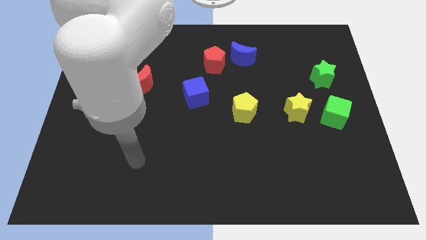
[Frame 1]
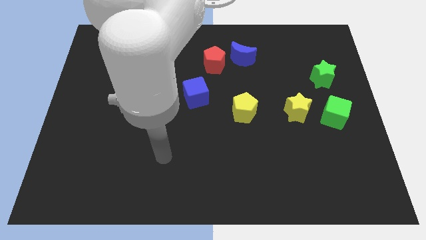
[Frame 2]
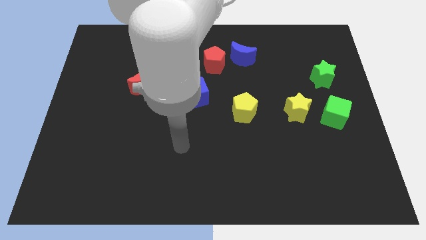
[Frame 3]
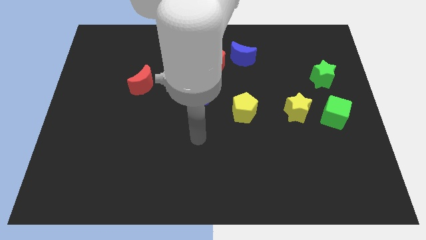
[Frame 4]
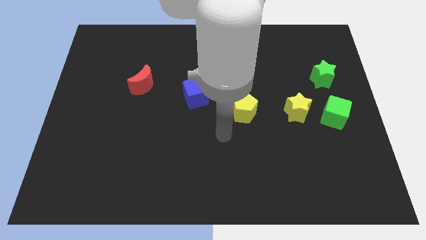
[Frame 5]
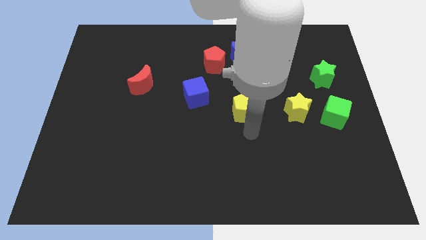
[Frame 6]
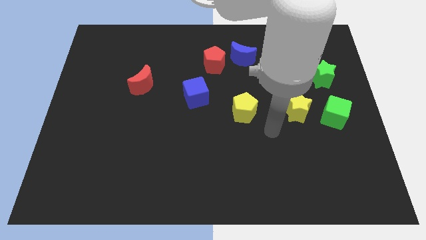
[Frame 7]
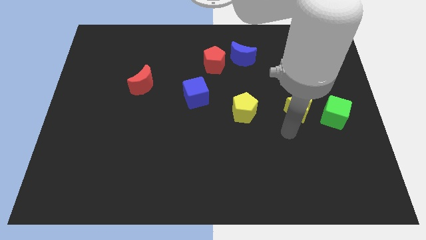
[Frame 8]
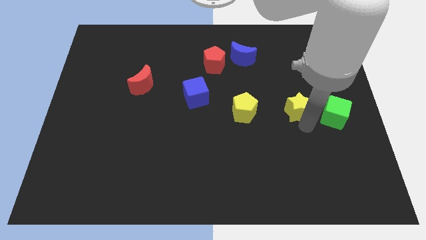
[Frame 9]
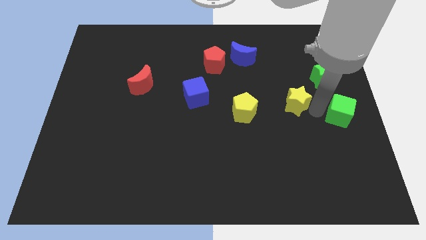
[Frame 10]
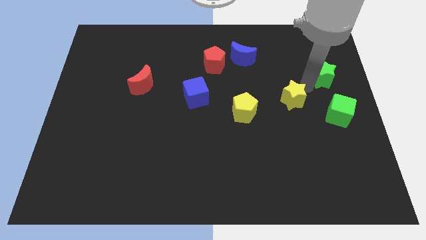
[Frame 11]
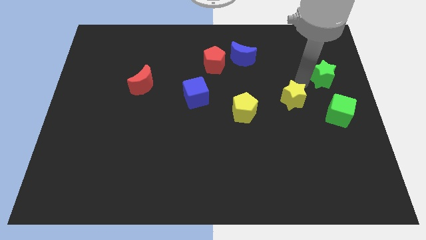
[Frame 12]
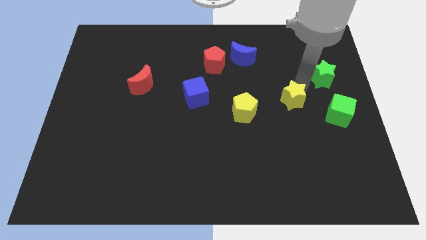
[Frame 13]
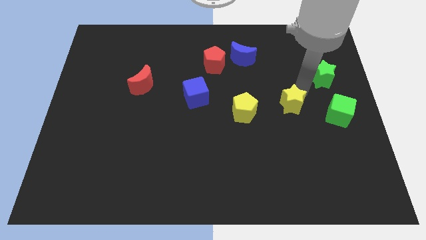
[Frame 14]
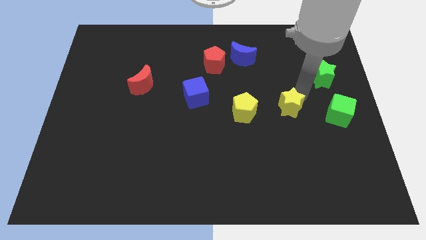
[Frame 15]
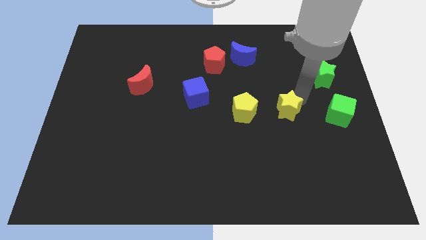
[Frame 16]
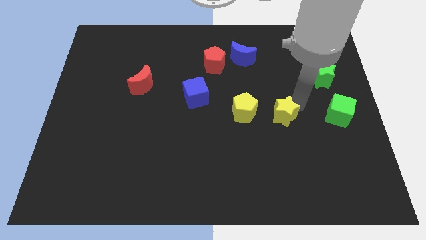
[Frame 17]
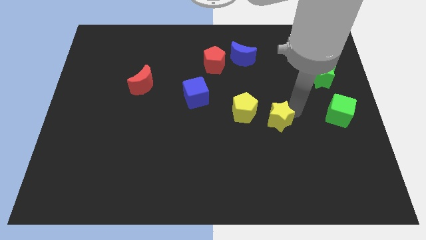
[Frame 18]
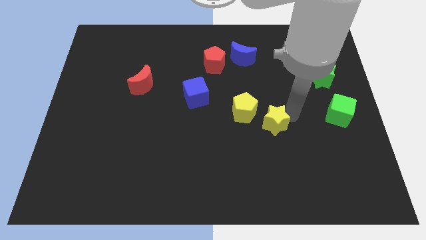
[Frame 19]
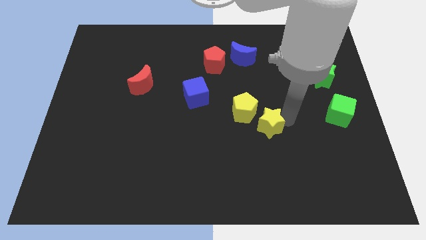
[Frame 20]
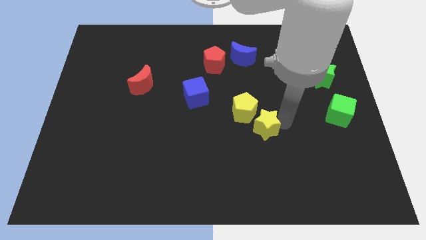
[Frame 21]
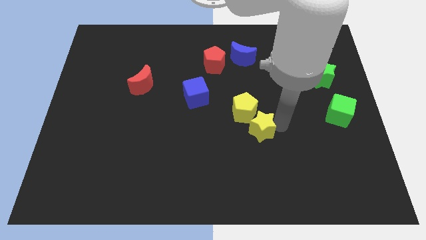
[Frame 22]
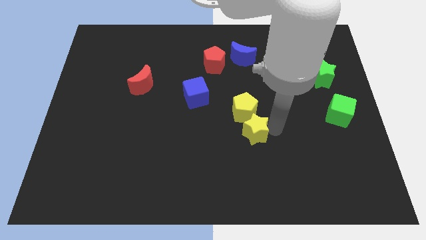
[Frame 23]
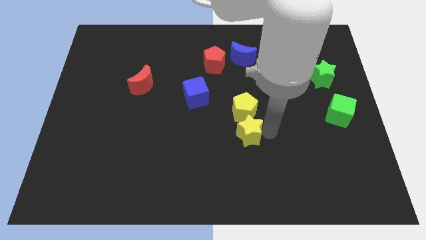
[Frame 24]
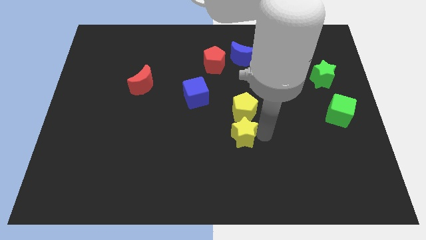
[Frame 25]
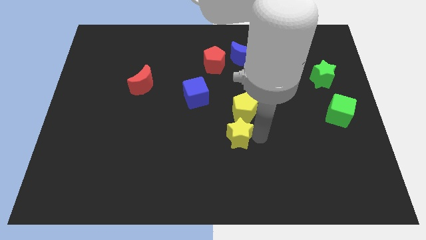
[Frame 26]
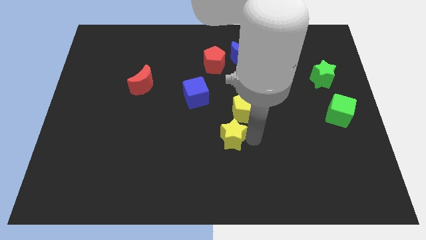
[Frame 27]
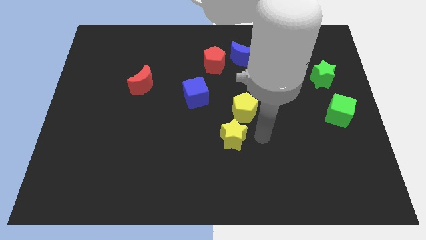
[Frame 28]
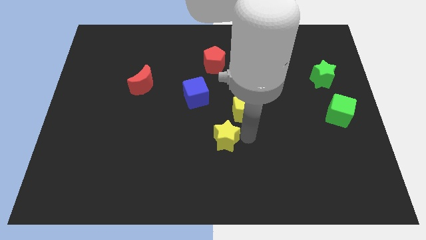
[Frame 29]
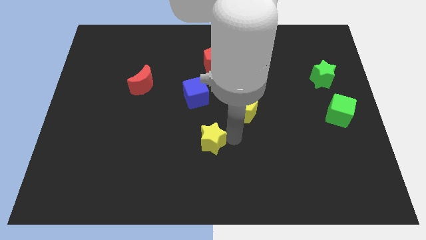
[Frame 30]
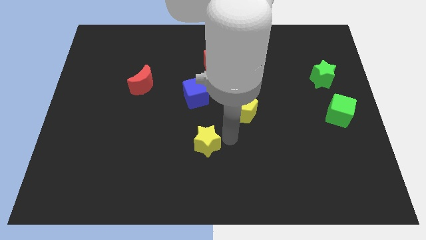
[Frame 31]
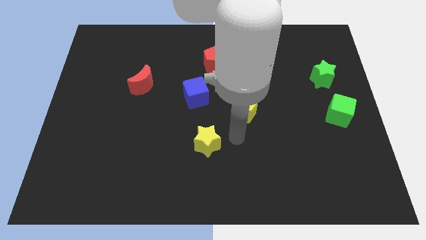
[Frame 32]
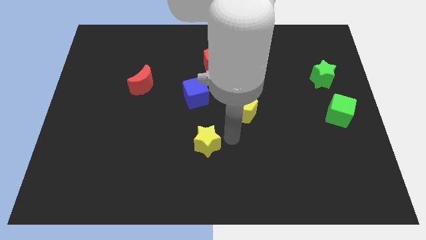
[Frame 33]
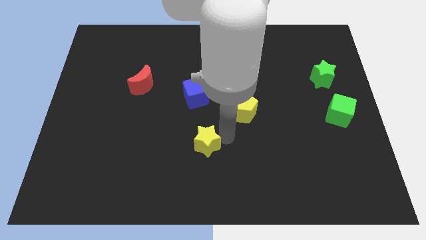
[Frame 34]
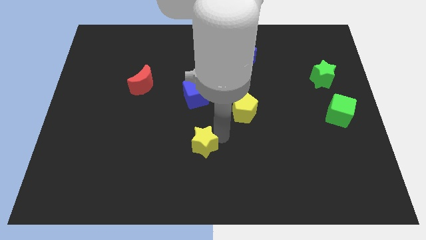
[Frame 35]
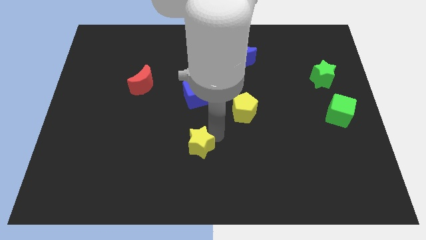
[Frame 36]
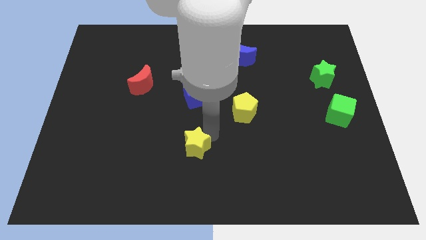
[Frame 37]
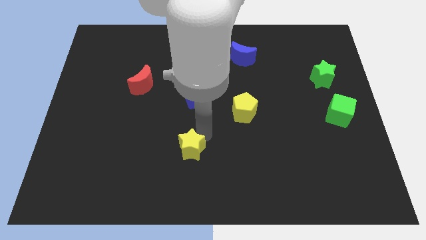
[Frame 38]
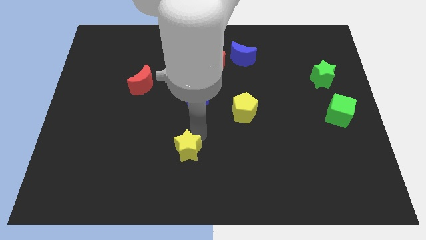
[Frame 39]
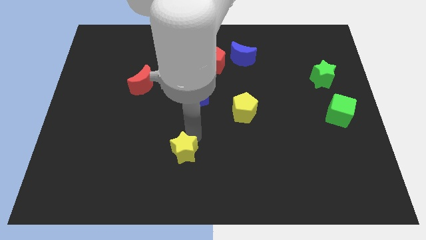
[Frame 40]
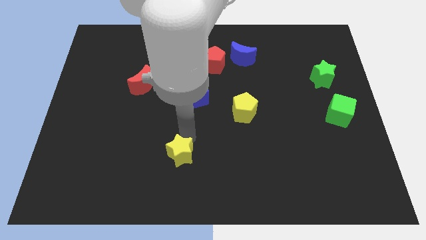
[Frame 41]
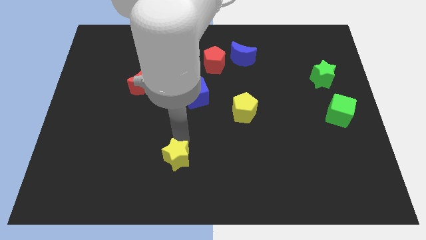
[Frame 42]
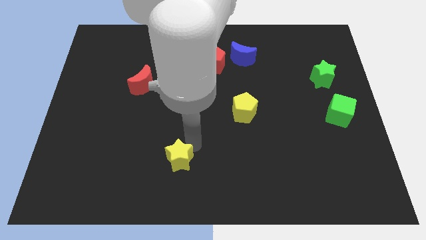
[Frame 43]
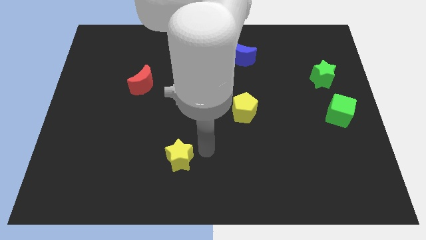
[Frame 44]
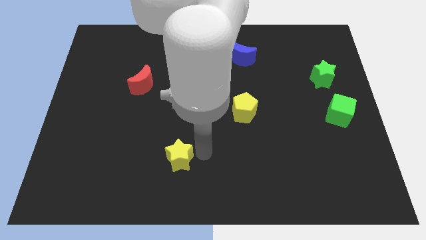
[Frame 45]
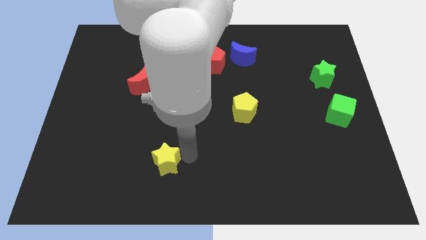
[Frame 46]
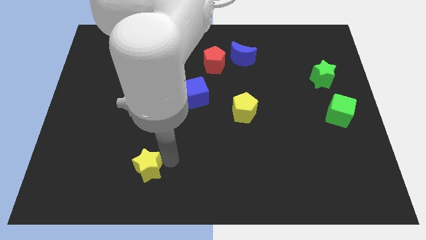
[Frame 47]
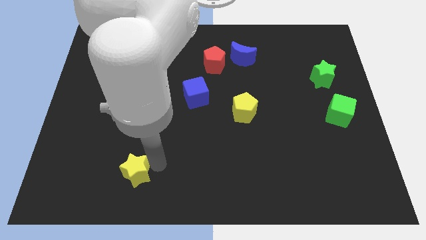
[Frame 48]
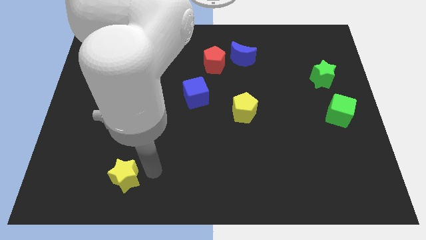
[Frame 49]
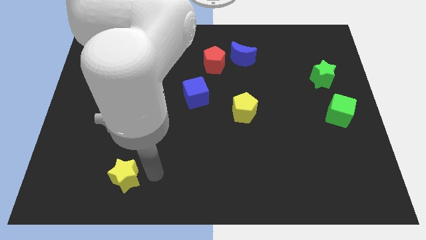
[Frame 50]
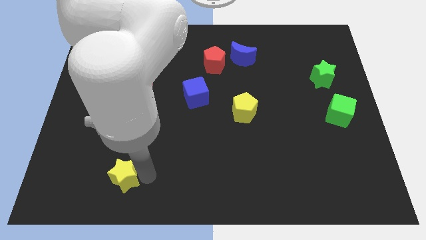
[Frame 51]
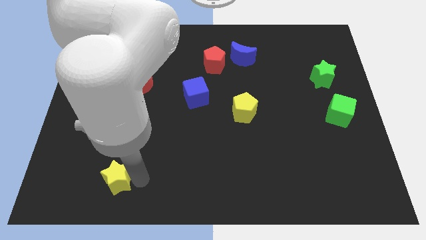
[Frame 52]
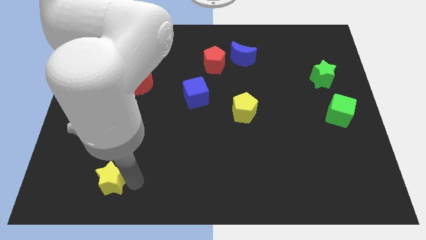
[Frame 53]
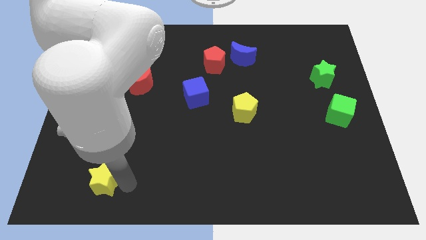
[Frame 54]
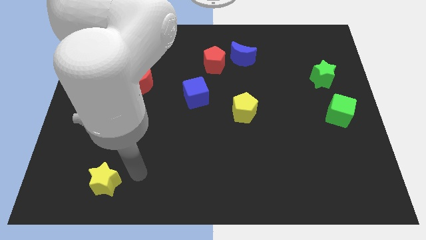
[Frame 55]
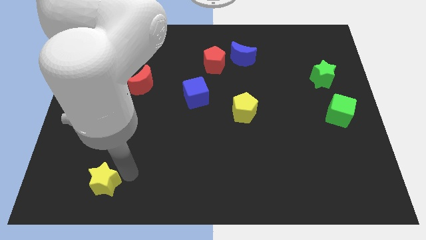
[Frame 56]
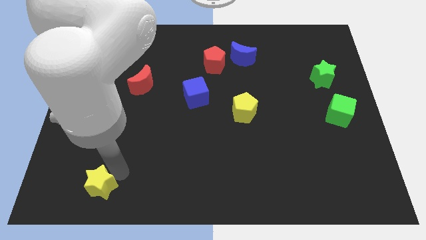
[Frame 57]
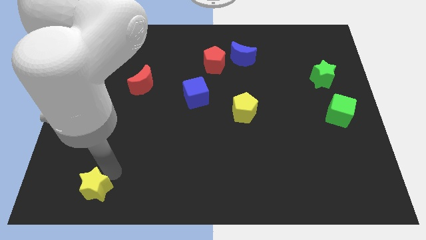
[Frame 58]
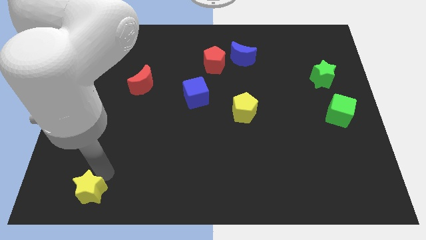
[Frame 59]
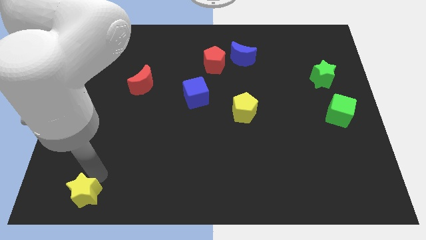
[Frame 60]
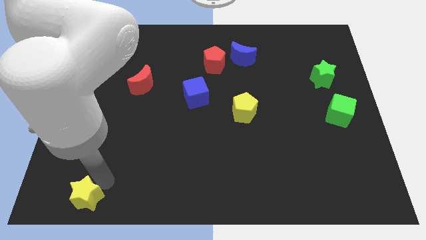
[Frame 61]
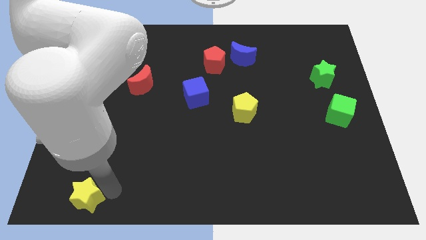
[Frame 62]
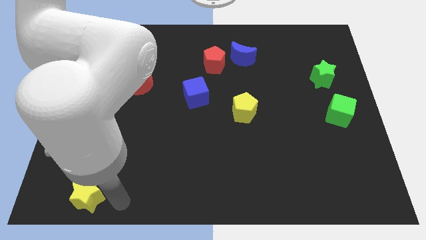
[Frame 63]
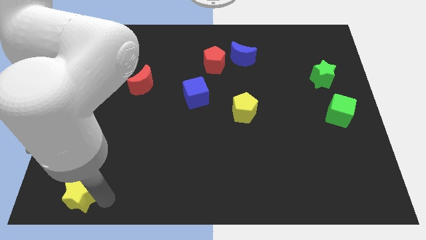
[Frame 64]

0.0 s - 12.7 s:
move the yellow star to the bottom left of the board
